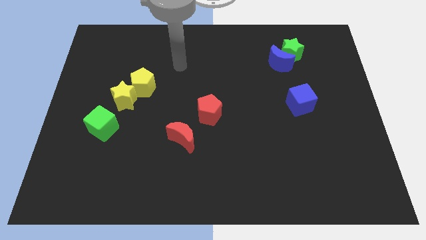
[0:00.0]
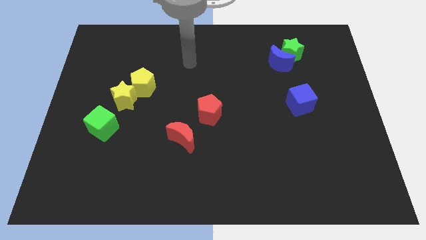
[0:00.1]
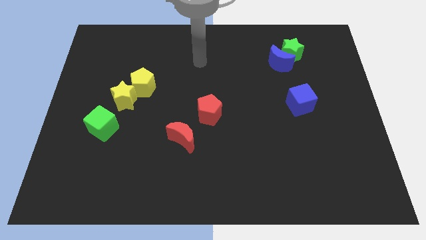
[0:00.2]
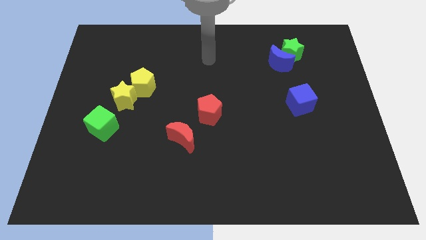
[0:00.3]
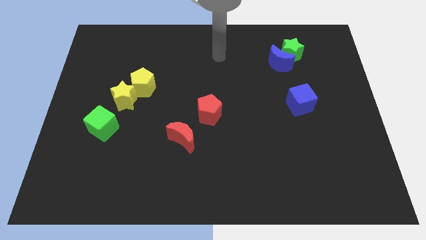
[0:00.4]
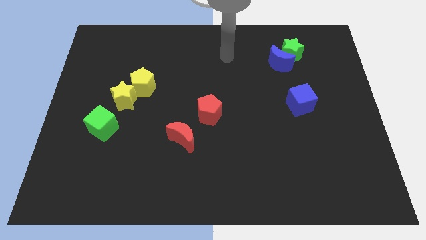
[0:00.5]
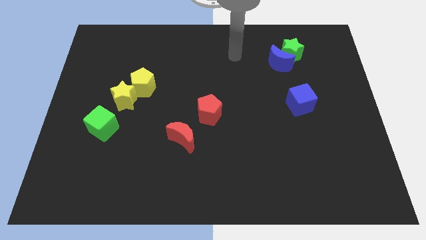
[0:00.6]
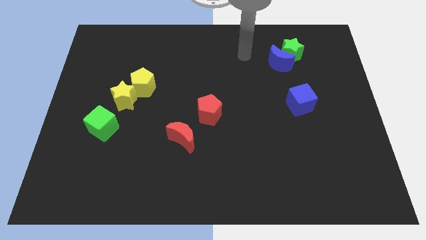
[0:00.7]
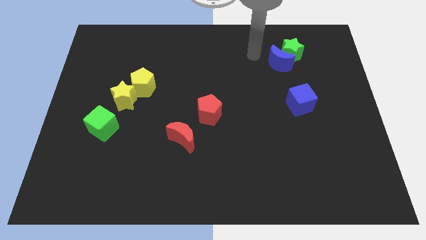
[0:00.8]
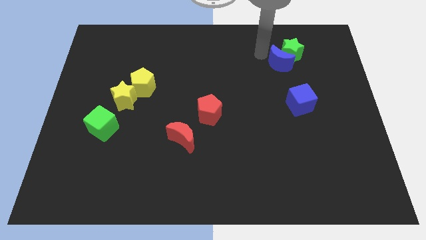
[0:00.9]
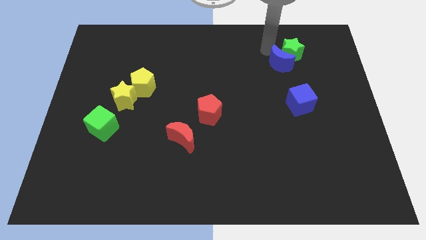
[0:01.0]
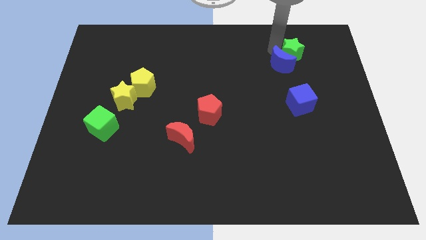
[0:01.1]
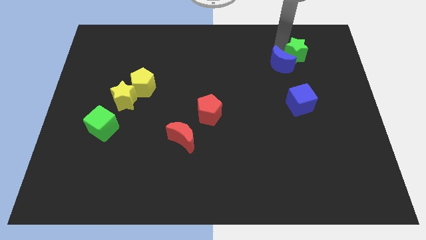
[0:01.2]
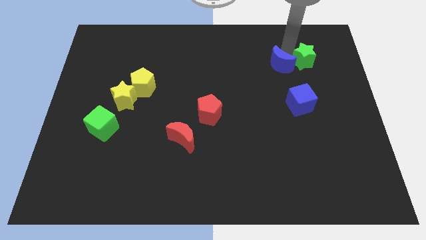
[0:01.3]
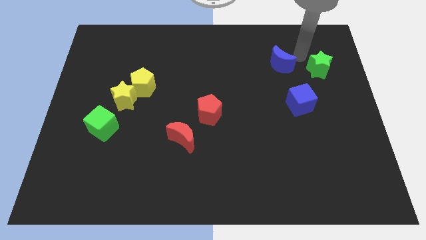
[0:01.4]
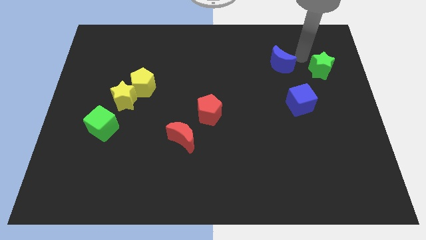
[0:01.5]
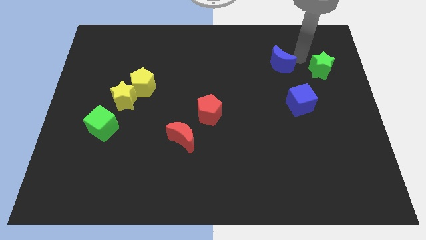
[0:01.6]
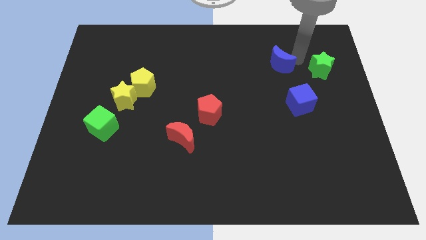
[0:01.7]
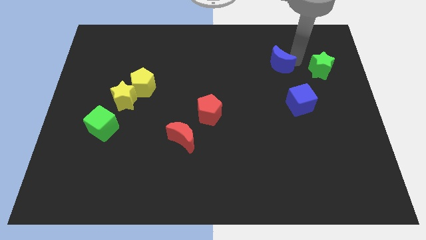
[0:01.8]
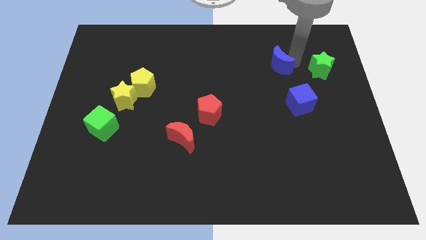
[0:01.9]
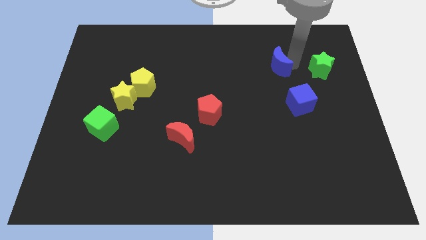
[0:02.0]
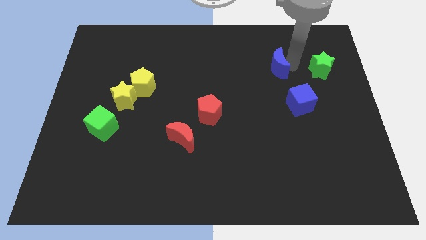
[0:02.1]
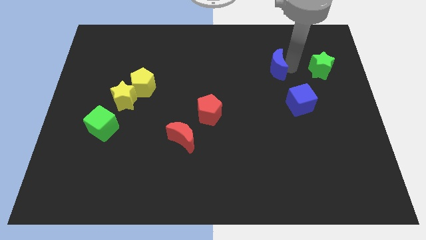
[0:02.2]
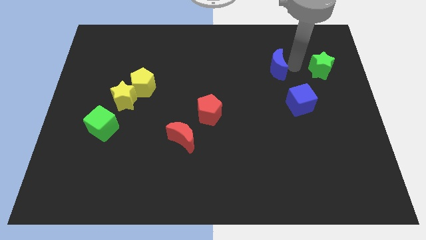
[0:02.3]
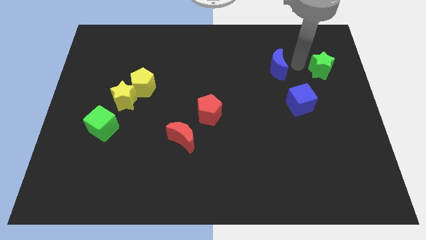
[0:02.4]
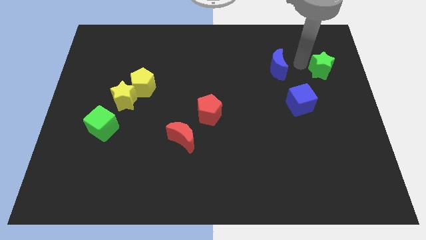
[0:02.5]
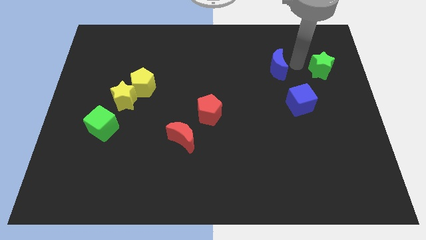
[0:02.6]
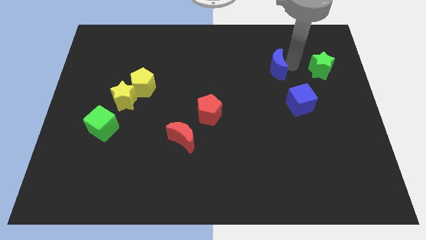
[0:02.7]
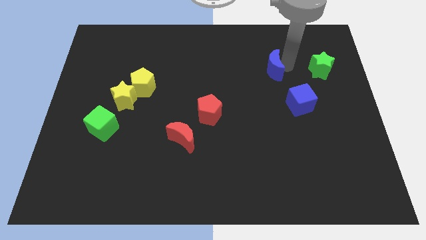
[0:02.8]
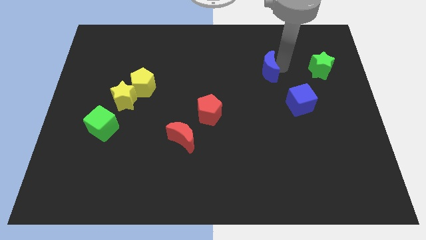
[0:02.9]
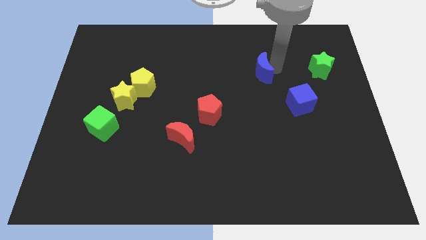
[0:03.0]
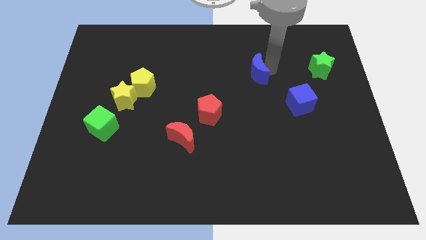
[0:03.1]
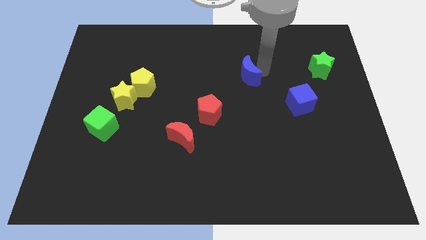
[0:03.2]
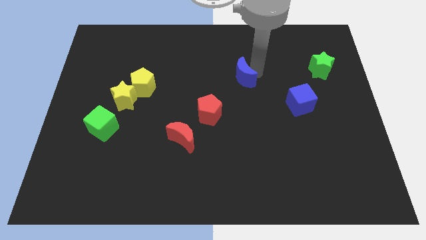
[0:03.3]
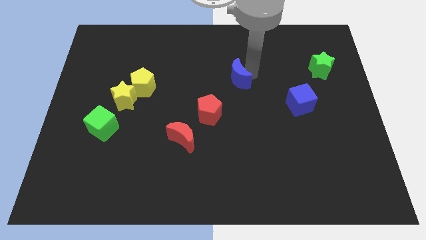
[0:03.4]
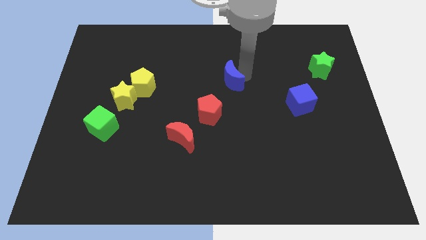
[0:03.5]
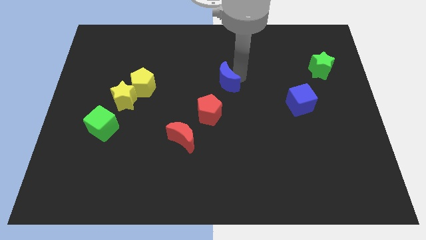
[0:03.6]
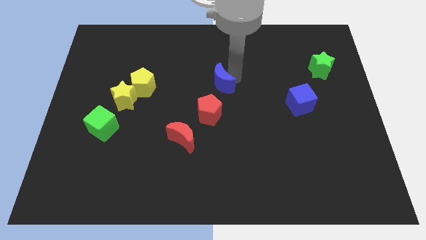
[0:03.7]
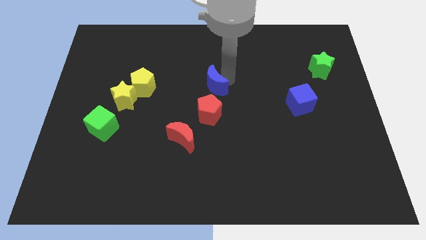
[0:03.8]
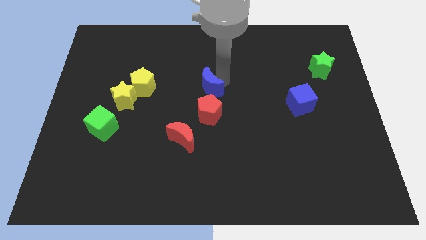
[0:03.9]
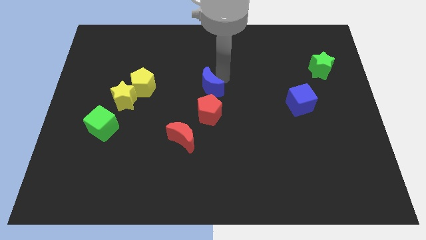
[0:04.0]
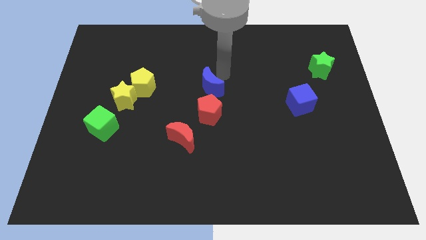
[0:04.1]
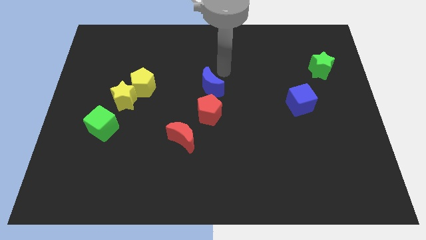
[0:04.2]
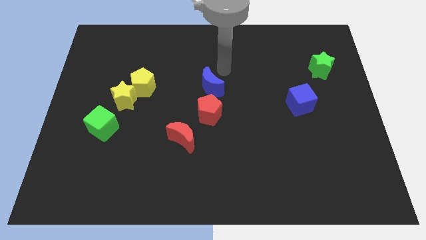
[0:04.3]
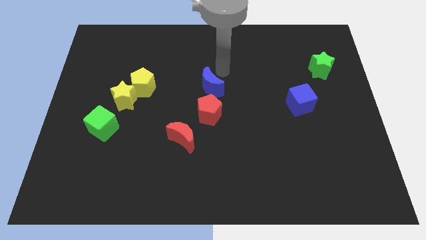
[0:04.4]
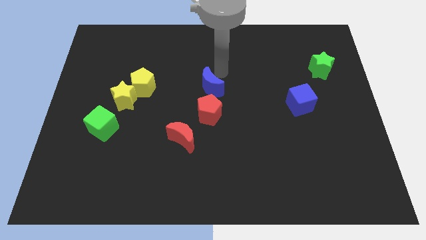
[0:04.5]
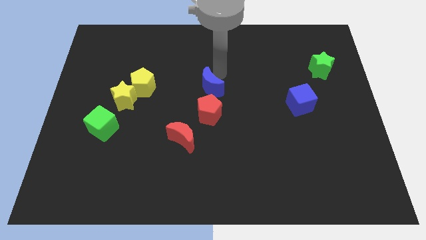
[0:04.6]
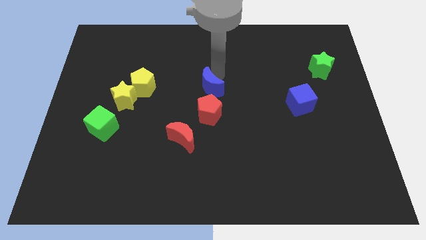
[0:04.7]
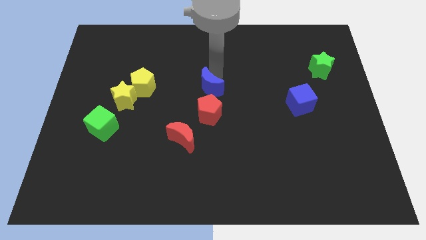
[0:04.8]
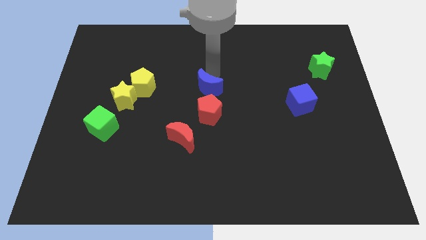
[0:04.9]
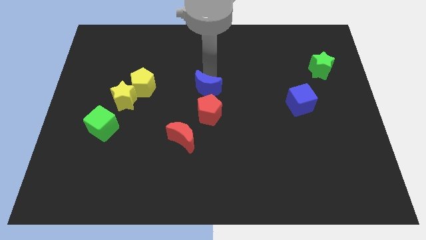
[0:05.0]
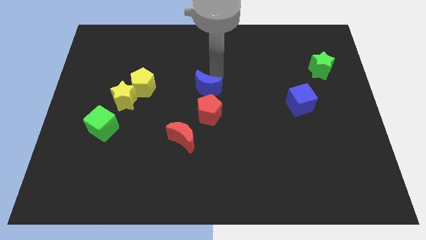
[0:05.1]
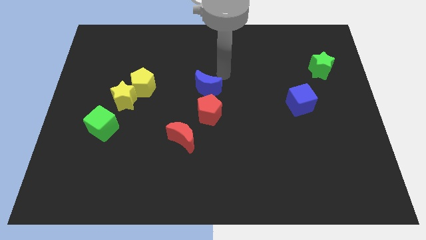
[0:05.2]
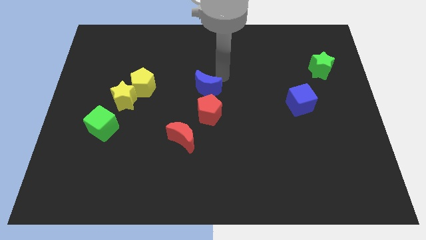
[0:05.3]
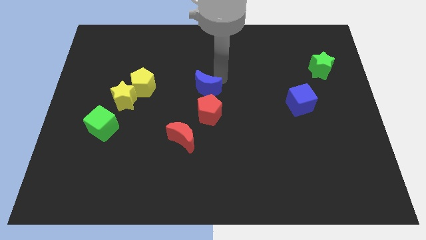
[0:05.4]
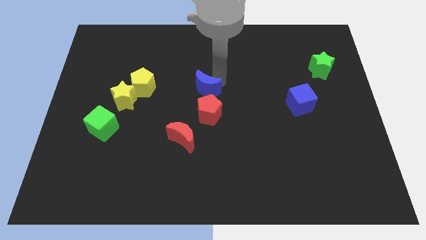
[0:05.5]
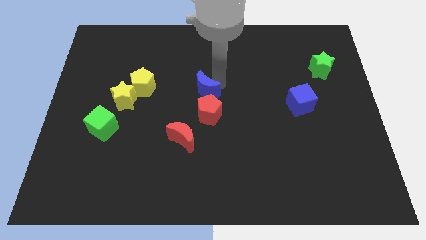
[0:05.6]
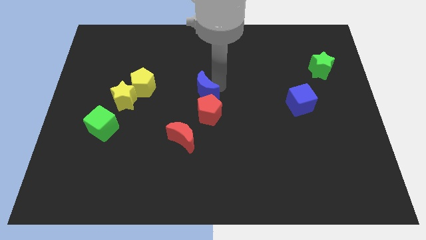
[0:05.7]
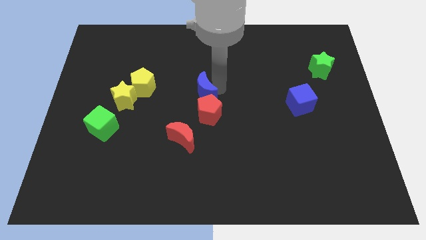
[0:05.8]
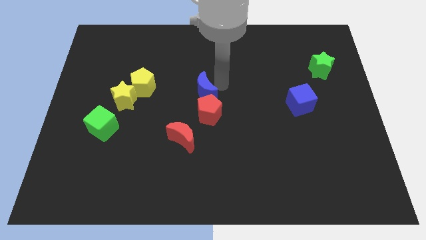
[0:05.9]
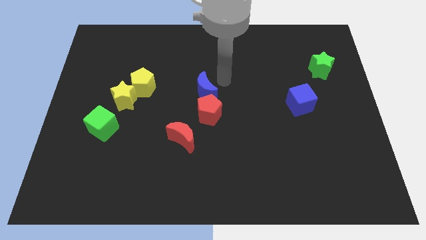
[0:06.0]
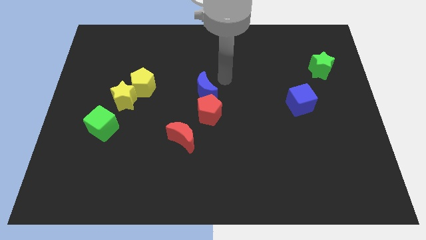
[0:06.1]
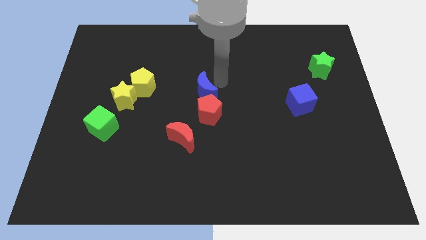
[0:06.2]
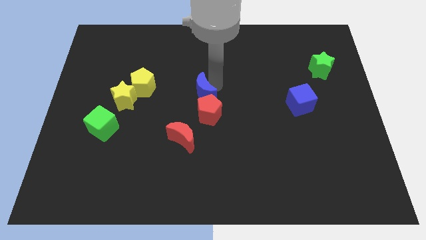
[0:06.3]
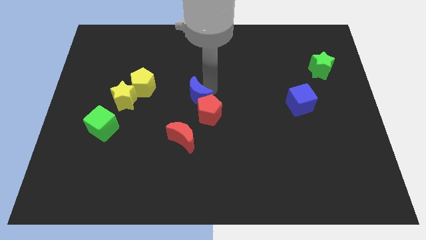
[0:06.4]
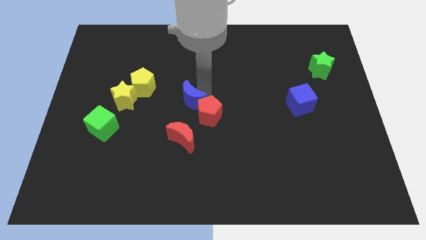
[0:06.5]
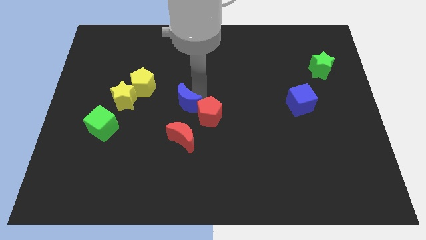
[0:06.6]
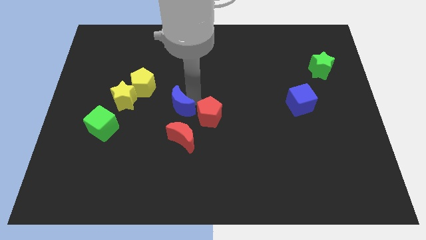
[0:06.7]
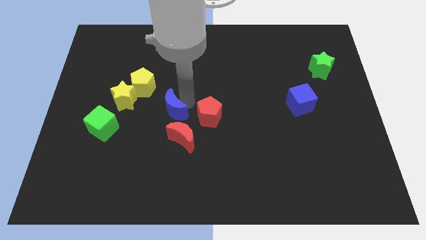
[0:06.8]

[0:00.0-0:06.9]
slide the blue moon to the top left of the red moon
